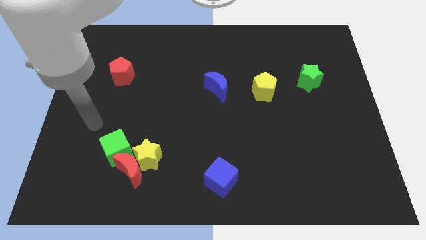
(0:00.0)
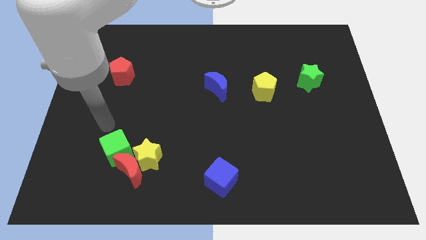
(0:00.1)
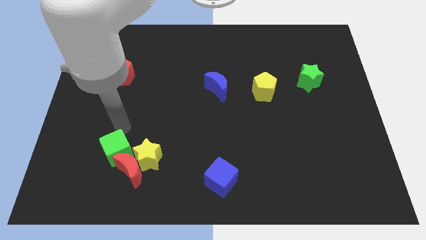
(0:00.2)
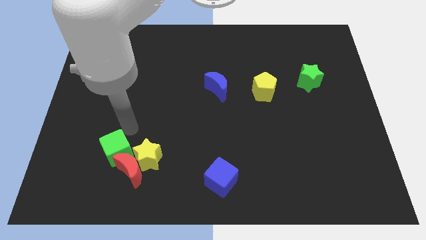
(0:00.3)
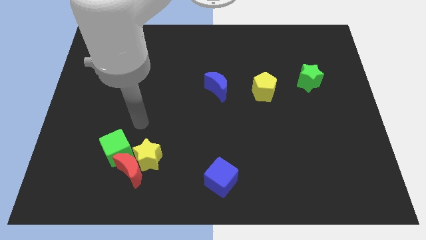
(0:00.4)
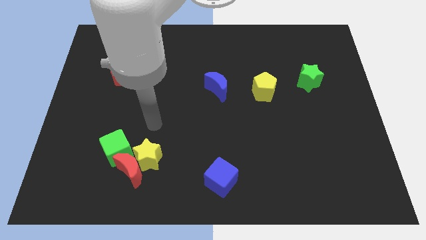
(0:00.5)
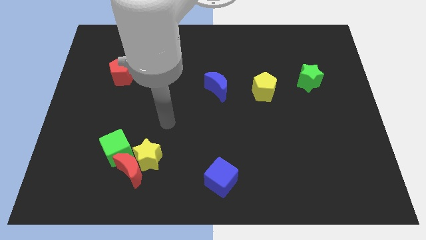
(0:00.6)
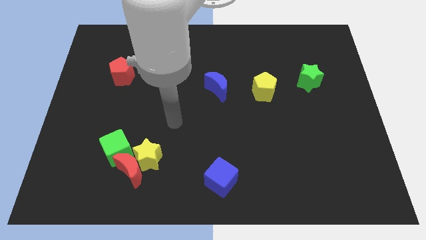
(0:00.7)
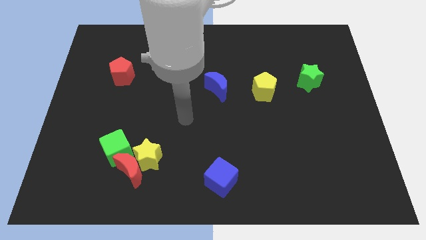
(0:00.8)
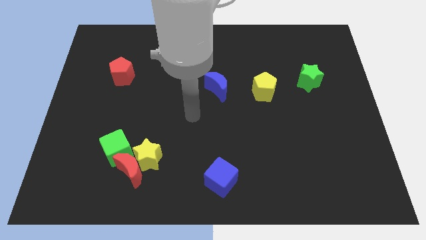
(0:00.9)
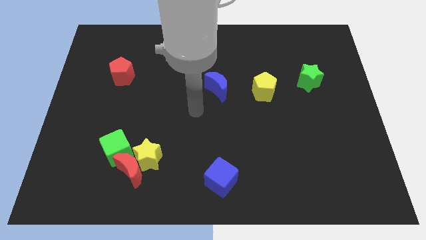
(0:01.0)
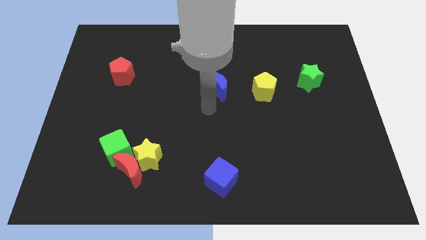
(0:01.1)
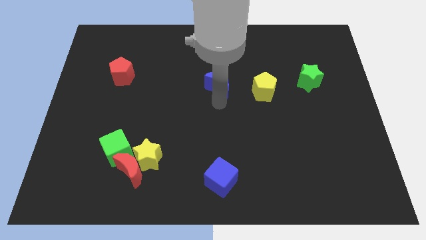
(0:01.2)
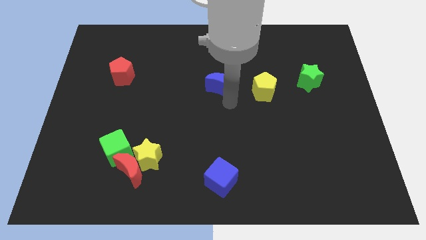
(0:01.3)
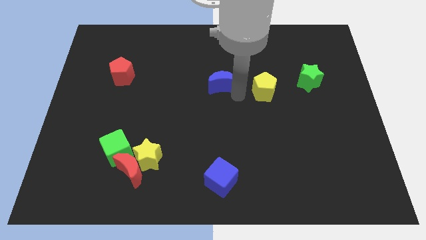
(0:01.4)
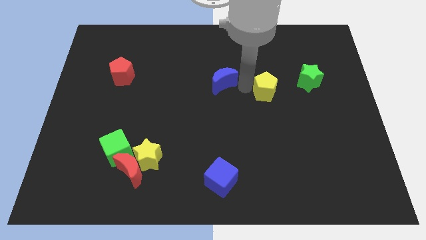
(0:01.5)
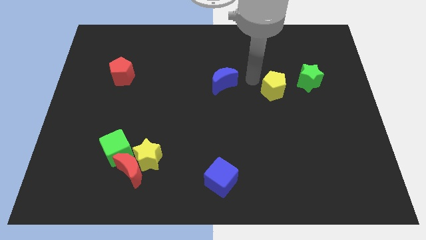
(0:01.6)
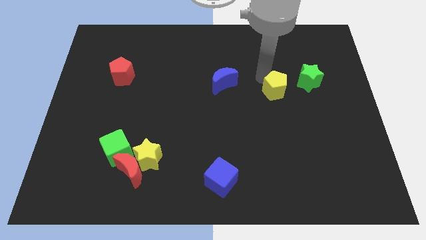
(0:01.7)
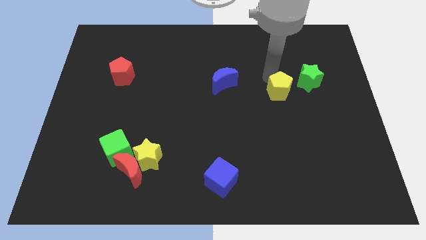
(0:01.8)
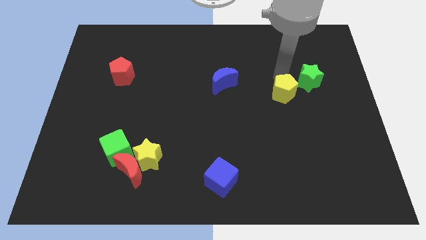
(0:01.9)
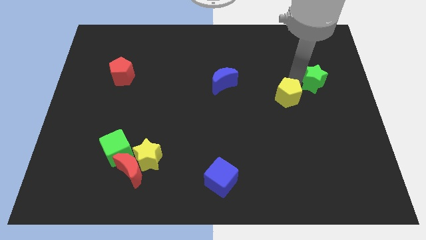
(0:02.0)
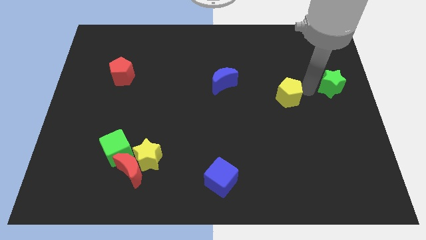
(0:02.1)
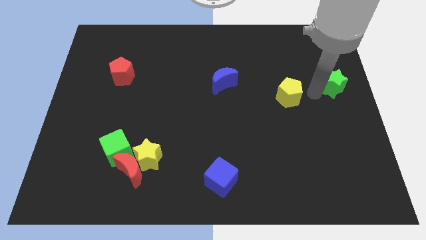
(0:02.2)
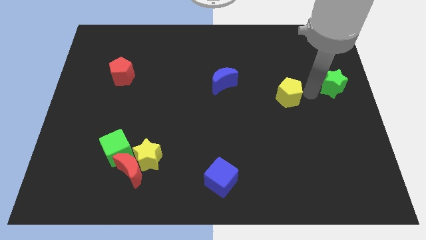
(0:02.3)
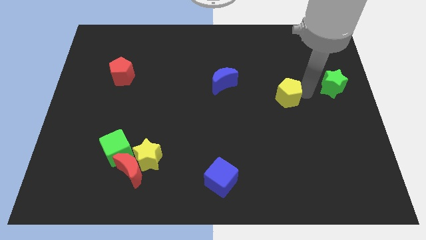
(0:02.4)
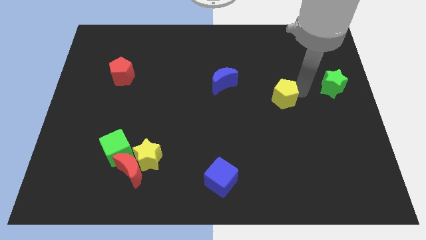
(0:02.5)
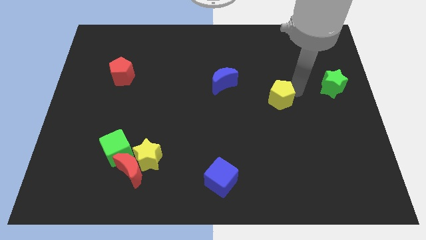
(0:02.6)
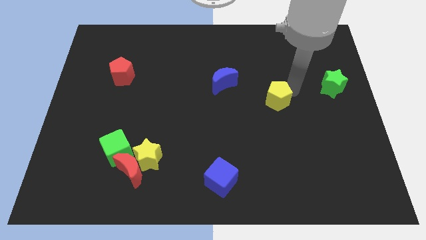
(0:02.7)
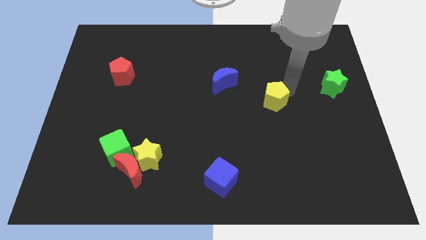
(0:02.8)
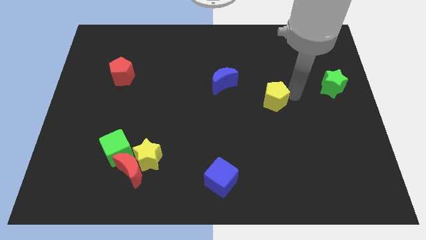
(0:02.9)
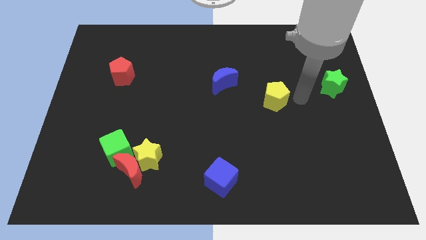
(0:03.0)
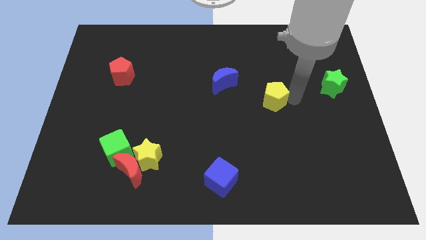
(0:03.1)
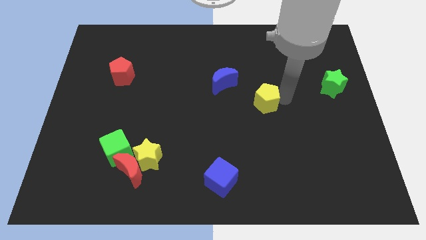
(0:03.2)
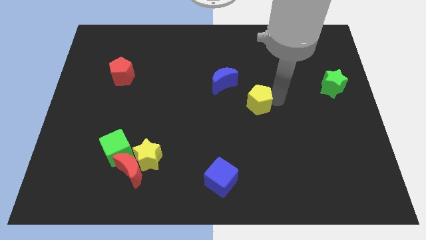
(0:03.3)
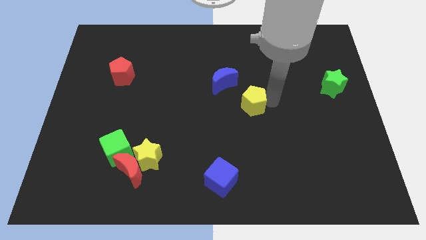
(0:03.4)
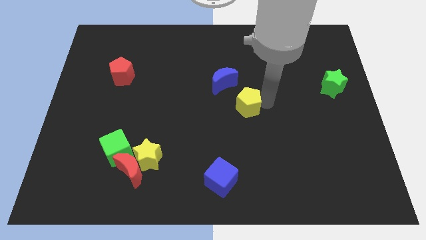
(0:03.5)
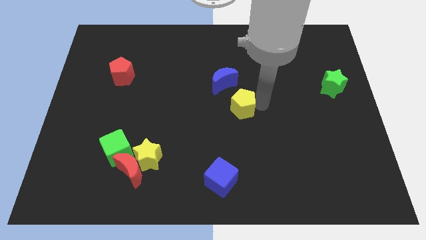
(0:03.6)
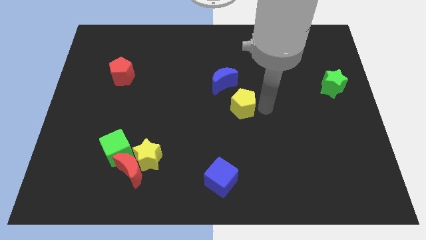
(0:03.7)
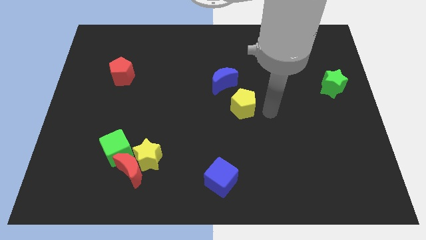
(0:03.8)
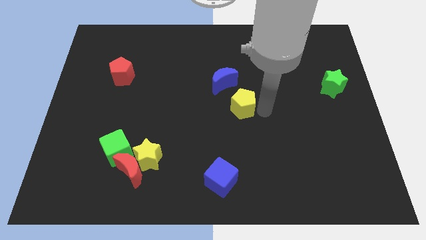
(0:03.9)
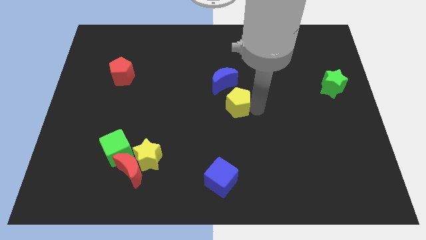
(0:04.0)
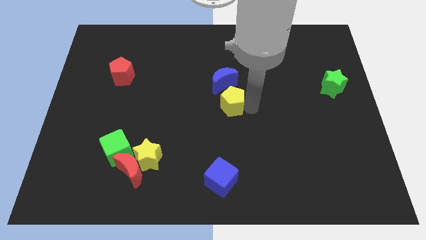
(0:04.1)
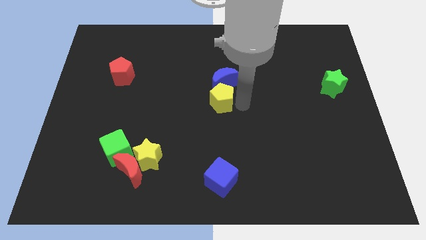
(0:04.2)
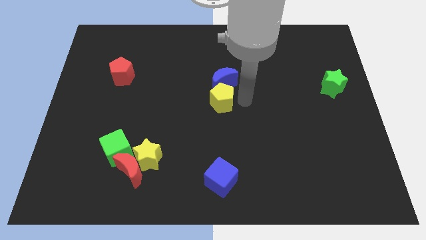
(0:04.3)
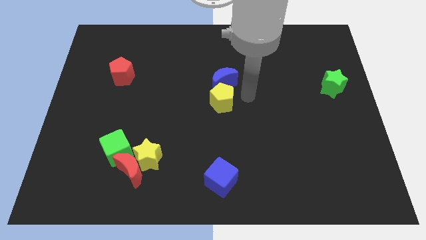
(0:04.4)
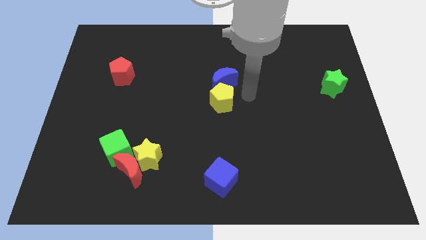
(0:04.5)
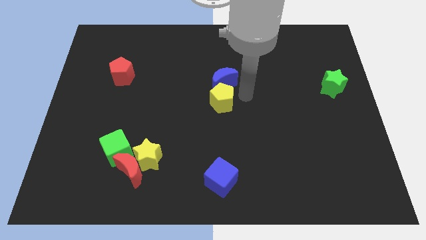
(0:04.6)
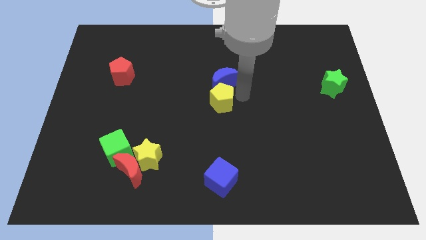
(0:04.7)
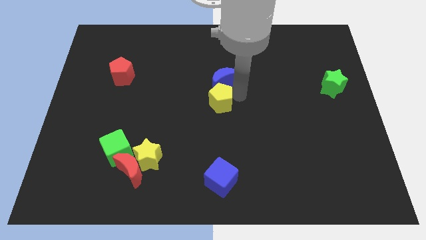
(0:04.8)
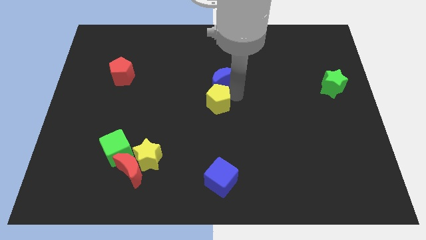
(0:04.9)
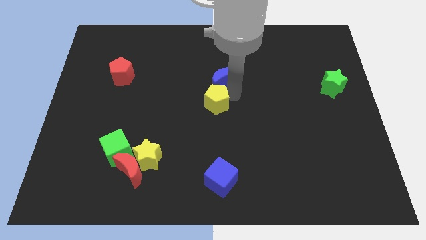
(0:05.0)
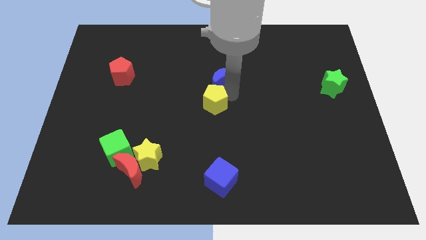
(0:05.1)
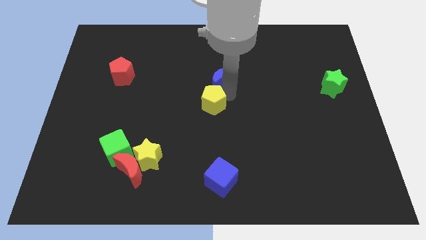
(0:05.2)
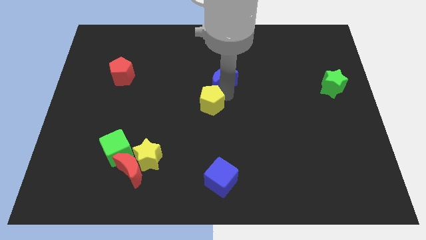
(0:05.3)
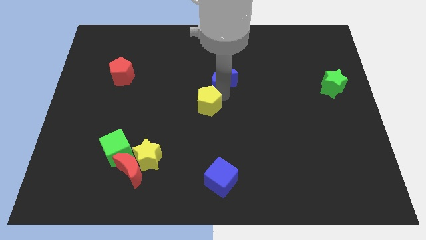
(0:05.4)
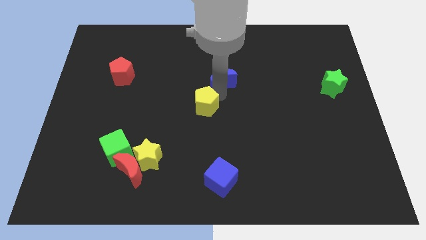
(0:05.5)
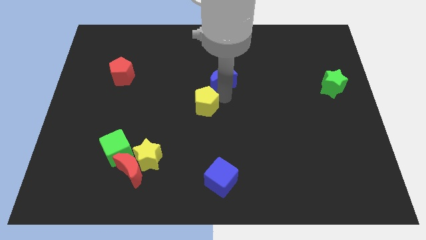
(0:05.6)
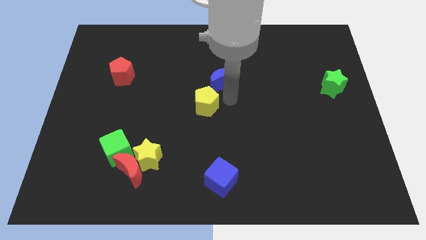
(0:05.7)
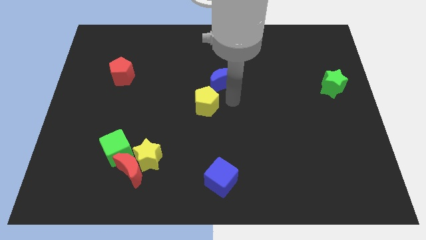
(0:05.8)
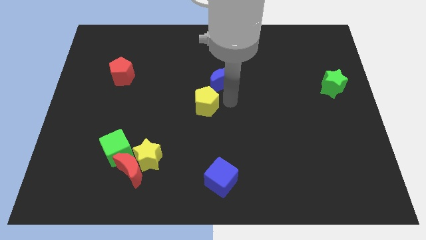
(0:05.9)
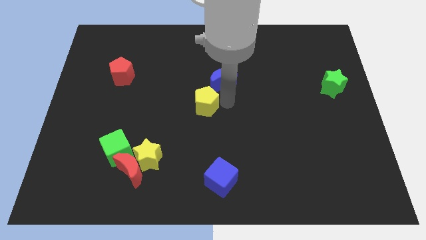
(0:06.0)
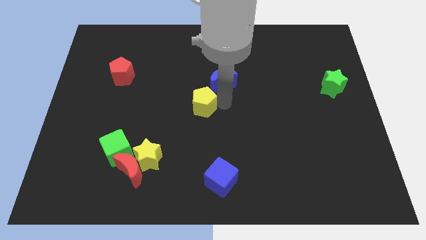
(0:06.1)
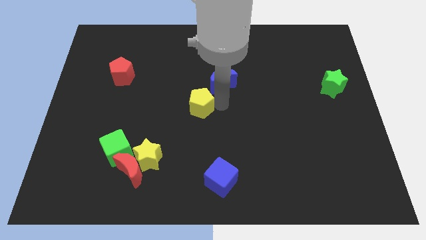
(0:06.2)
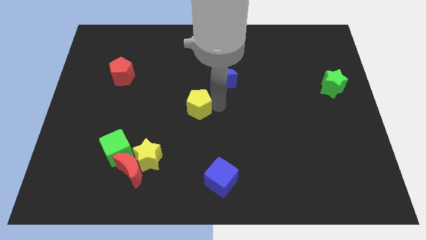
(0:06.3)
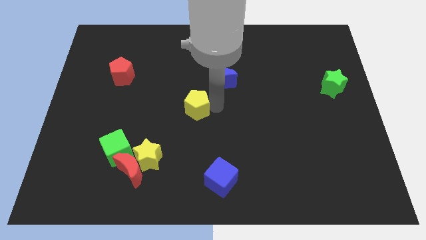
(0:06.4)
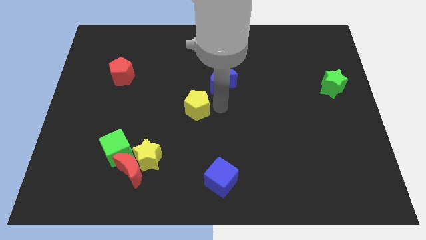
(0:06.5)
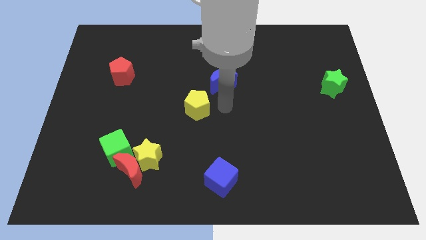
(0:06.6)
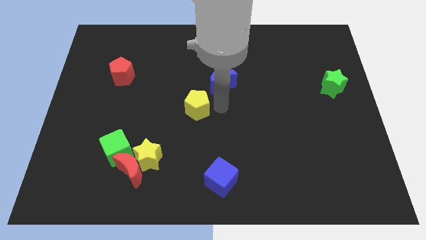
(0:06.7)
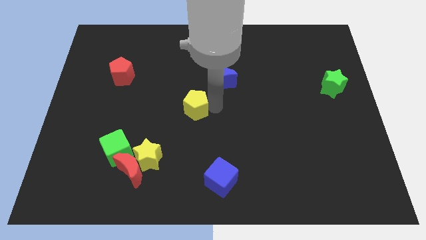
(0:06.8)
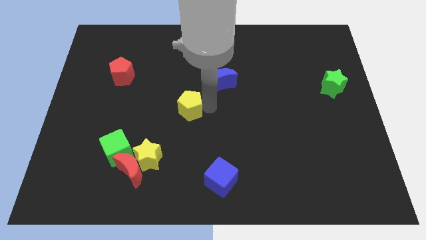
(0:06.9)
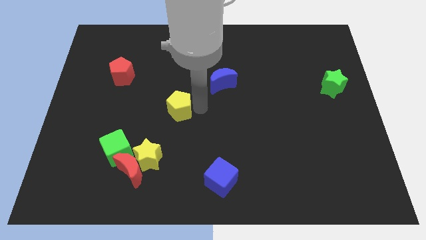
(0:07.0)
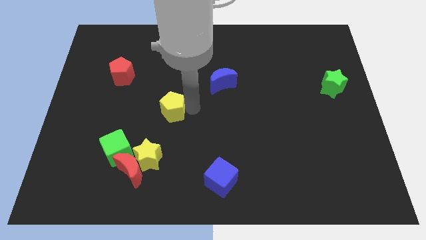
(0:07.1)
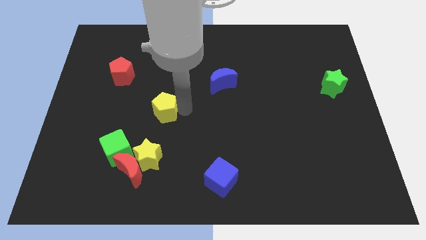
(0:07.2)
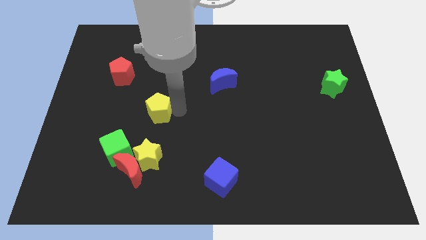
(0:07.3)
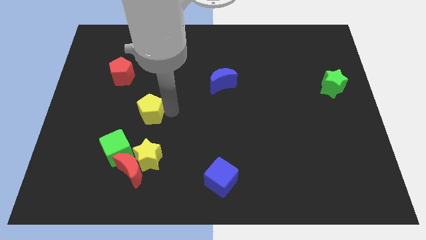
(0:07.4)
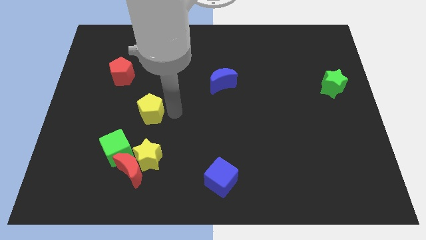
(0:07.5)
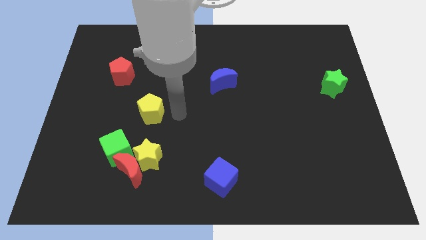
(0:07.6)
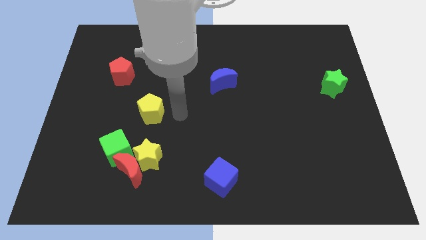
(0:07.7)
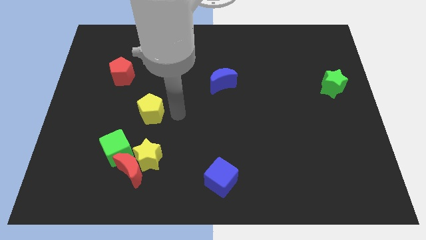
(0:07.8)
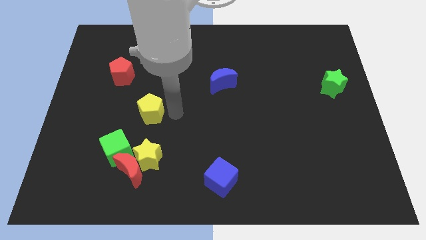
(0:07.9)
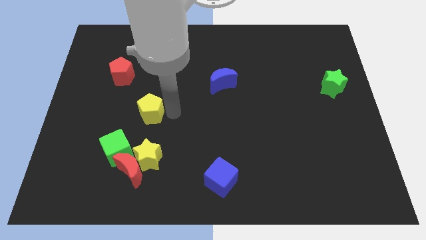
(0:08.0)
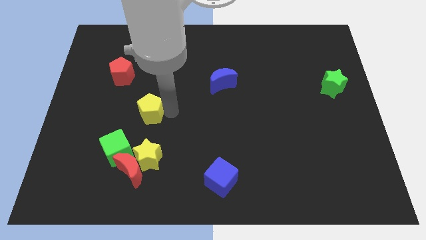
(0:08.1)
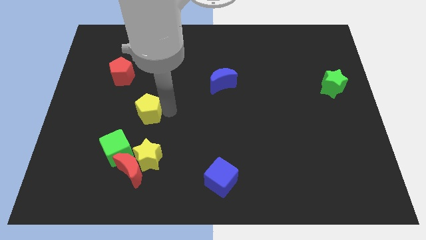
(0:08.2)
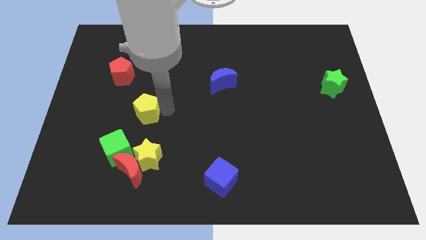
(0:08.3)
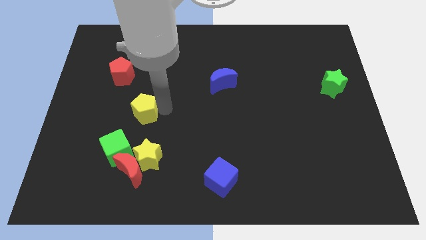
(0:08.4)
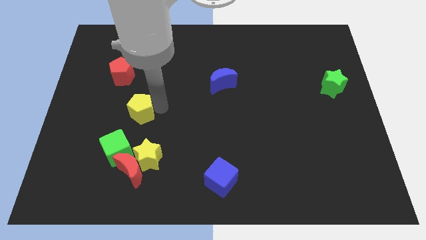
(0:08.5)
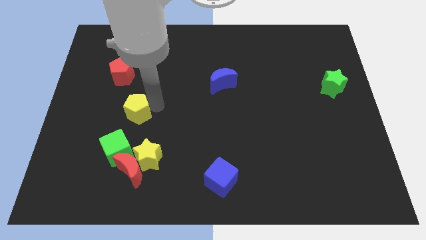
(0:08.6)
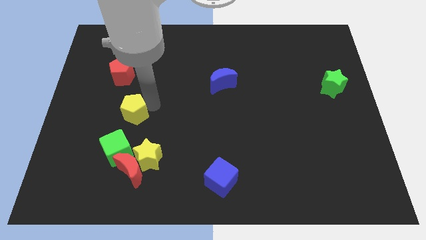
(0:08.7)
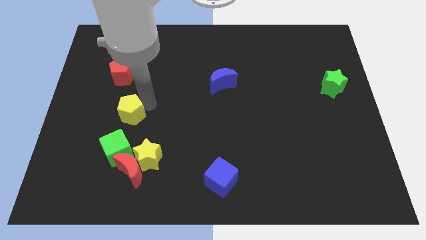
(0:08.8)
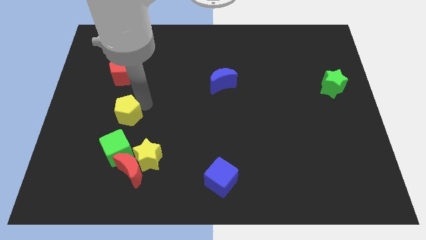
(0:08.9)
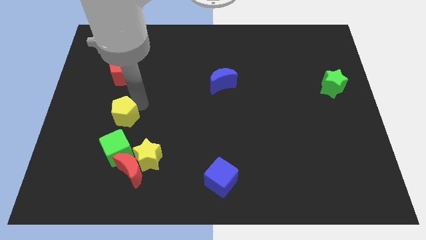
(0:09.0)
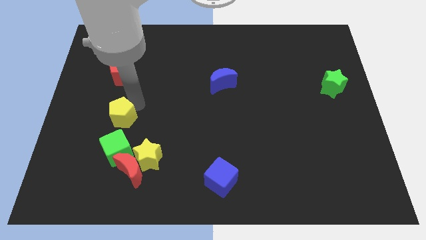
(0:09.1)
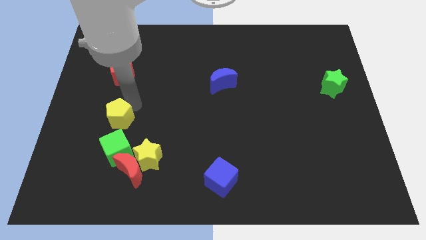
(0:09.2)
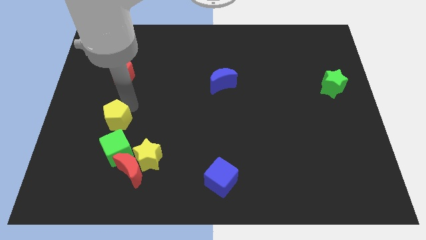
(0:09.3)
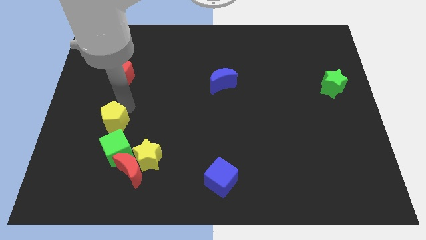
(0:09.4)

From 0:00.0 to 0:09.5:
put the yellow pentagon diagonally up and to the left of the green cube
